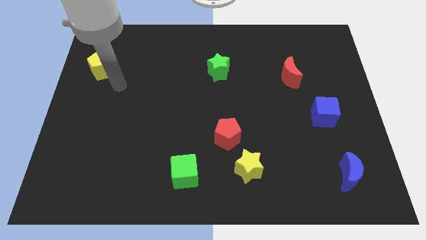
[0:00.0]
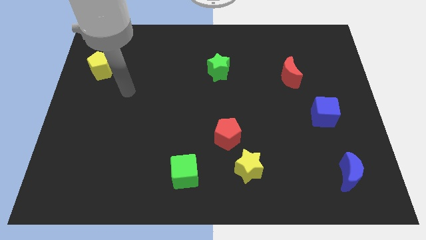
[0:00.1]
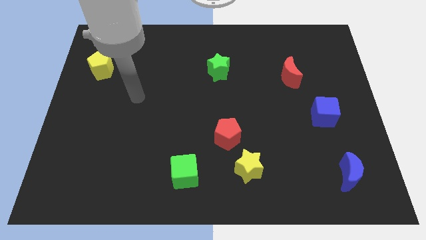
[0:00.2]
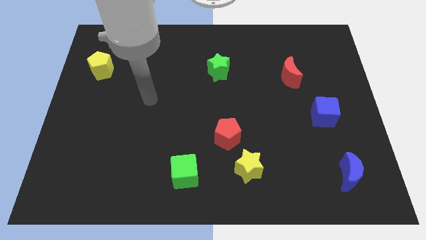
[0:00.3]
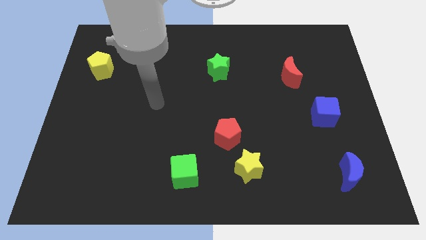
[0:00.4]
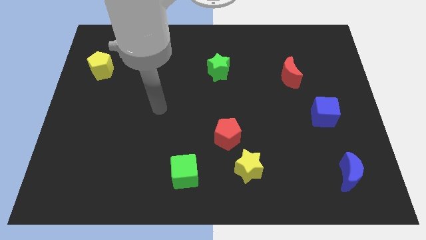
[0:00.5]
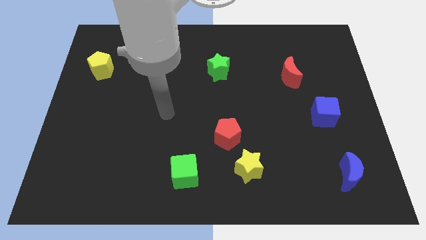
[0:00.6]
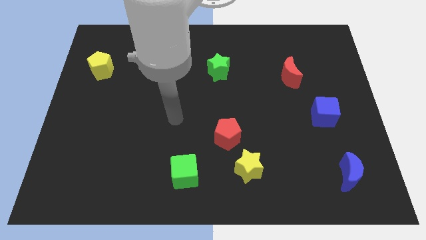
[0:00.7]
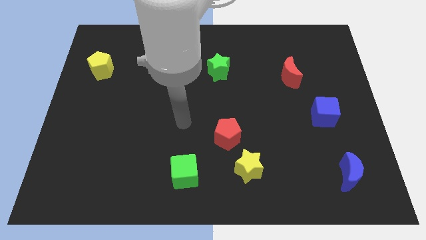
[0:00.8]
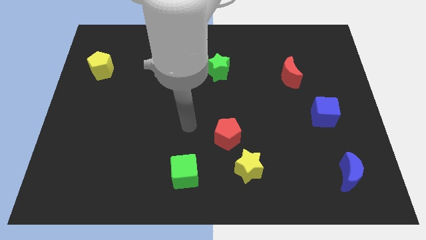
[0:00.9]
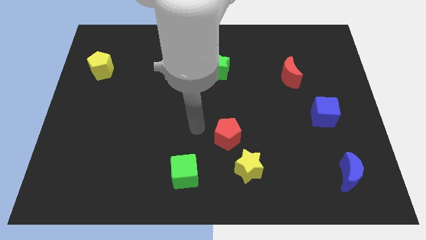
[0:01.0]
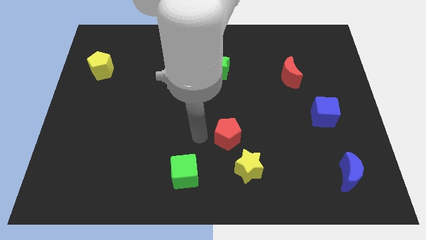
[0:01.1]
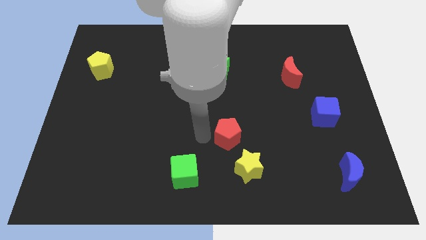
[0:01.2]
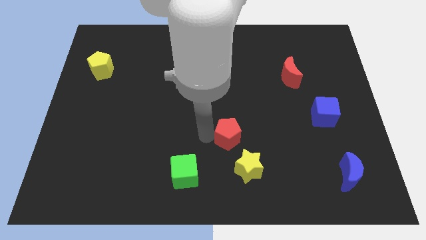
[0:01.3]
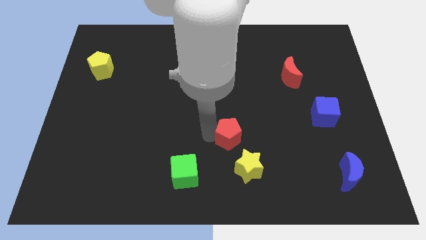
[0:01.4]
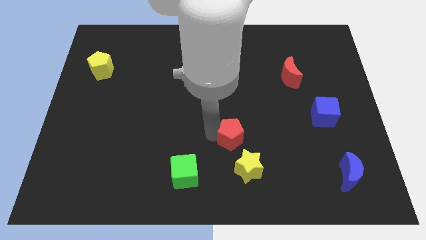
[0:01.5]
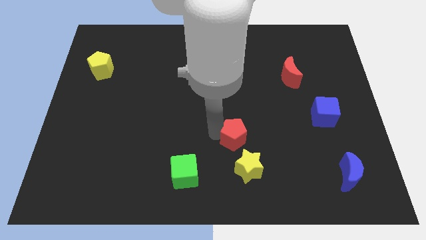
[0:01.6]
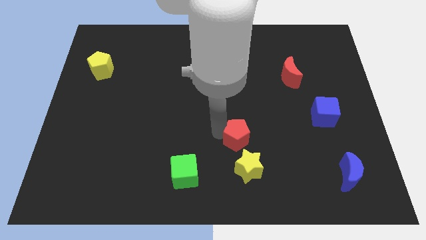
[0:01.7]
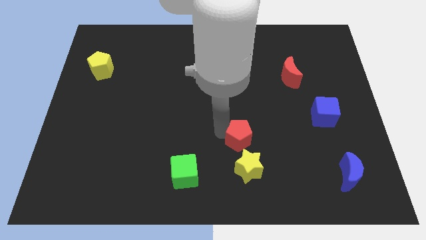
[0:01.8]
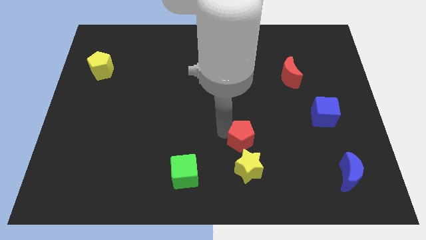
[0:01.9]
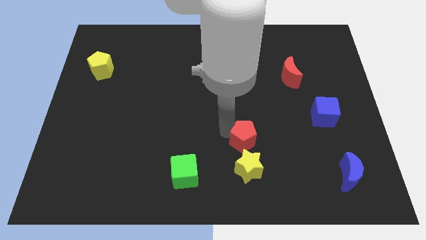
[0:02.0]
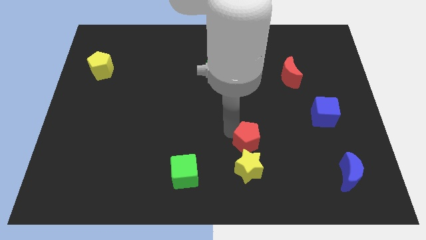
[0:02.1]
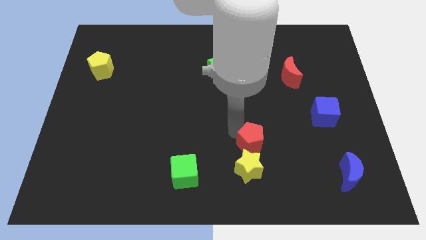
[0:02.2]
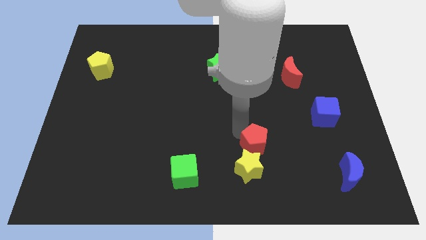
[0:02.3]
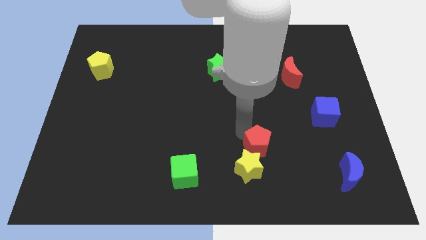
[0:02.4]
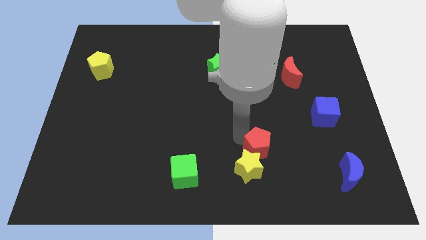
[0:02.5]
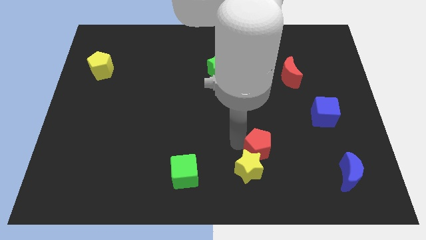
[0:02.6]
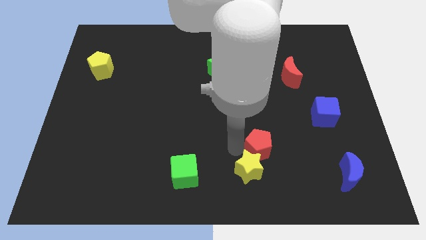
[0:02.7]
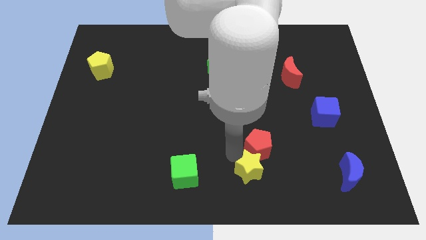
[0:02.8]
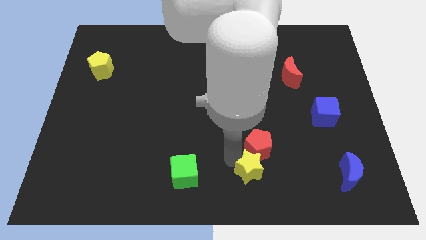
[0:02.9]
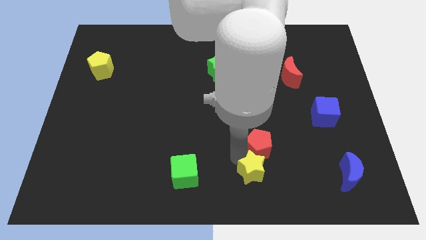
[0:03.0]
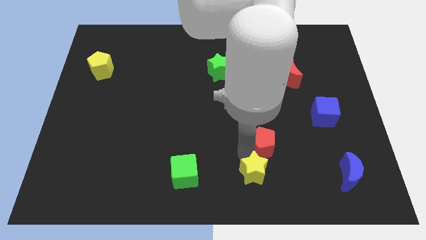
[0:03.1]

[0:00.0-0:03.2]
slightly slide the red pentagon right

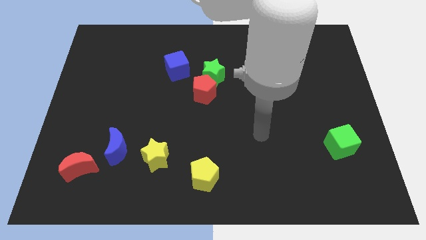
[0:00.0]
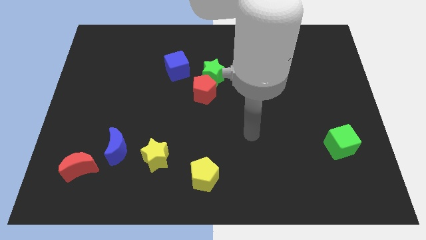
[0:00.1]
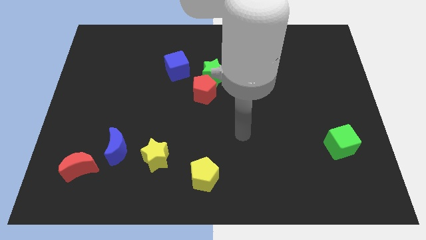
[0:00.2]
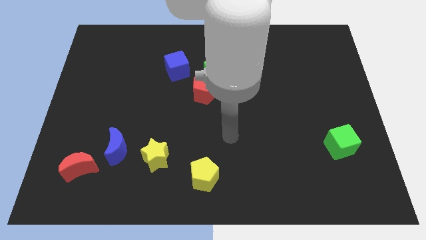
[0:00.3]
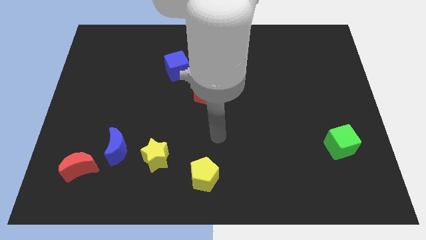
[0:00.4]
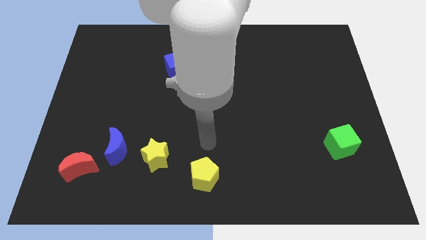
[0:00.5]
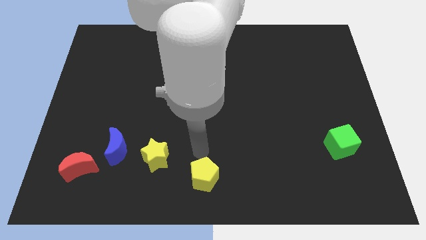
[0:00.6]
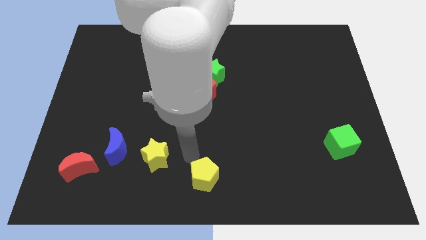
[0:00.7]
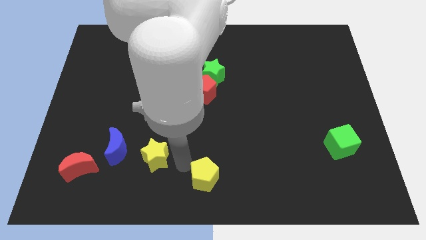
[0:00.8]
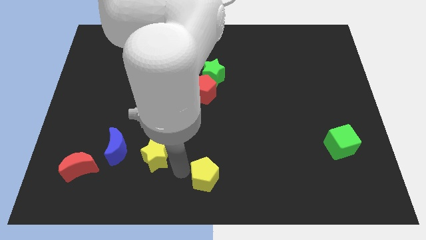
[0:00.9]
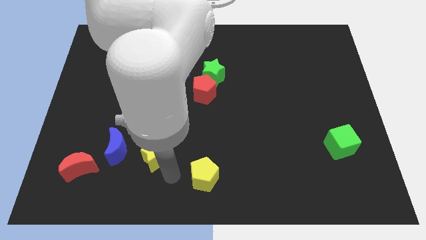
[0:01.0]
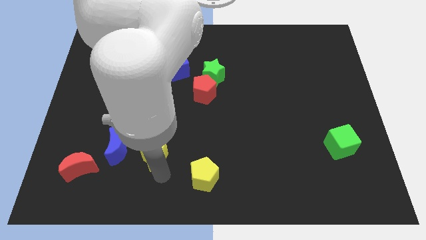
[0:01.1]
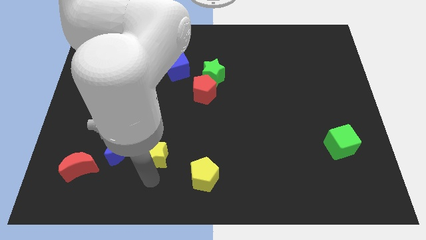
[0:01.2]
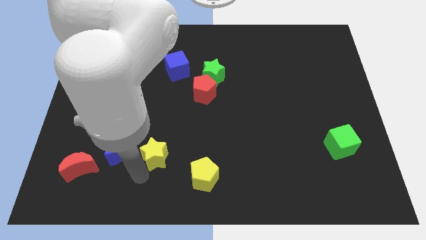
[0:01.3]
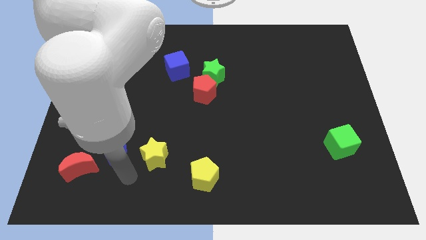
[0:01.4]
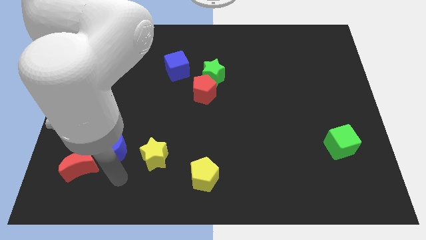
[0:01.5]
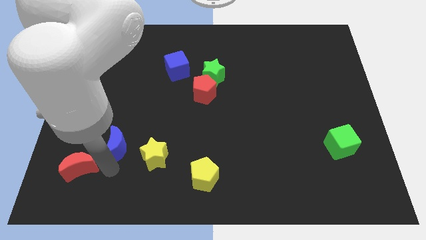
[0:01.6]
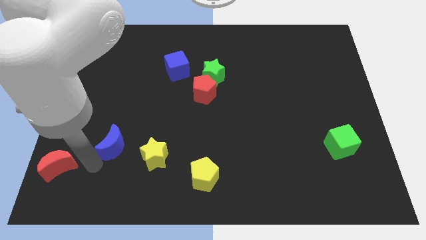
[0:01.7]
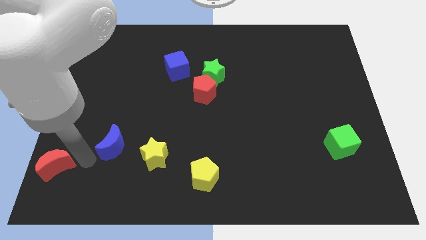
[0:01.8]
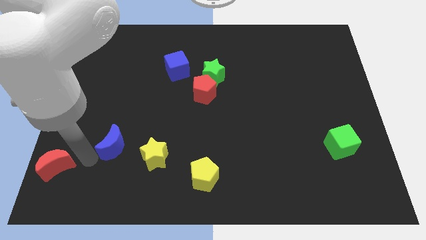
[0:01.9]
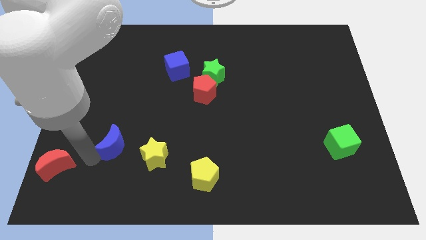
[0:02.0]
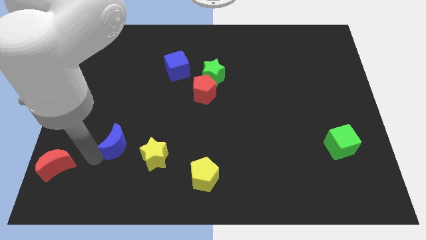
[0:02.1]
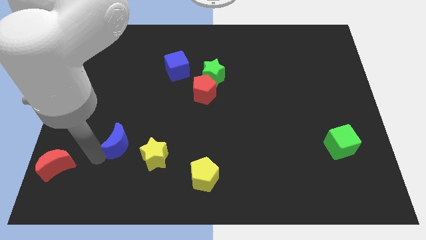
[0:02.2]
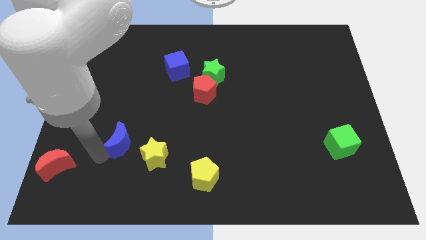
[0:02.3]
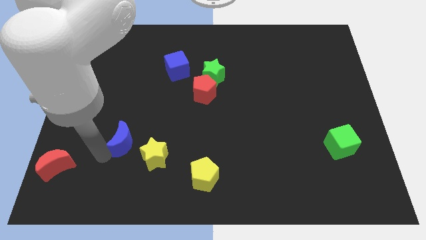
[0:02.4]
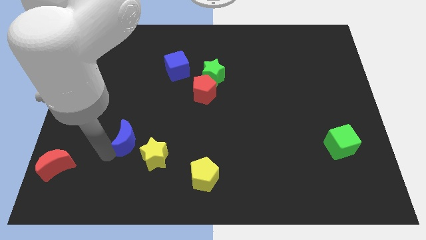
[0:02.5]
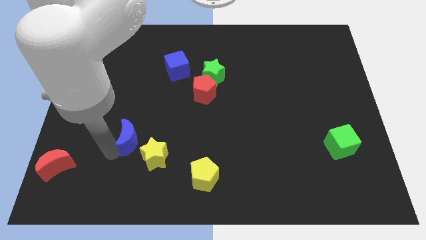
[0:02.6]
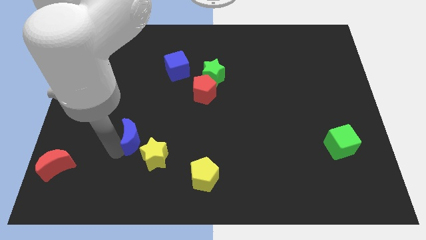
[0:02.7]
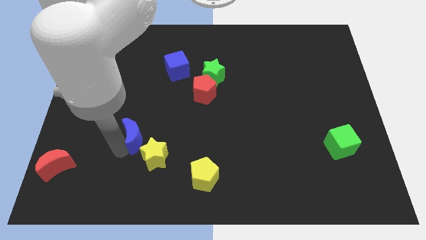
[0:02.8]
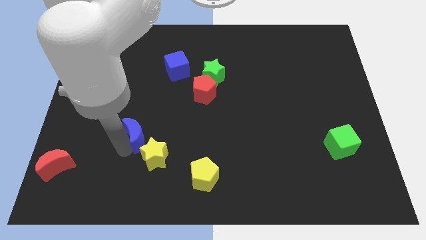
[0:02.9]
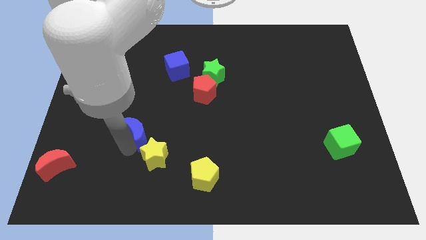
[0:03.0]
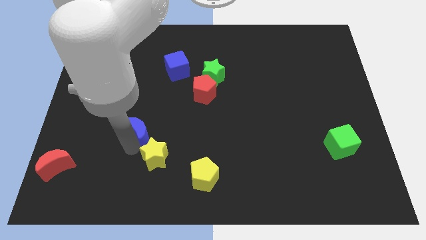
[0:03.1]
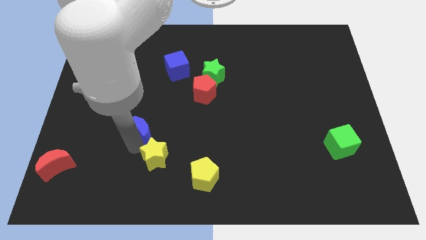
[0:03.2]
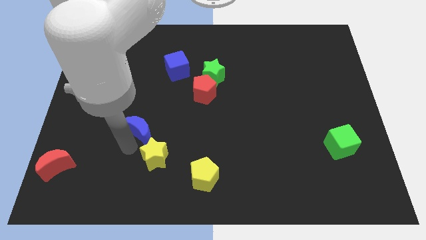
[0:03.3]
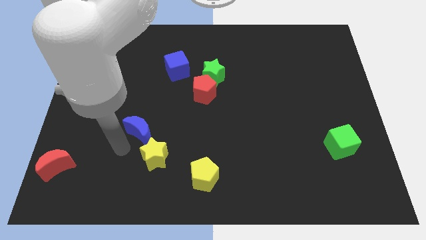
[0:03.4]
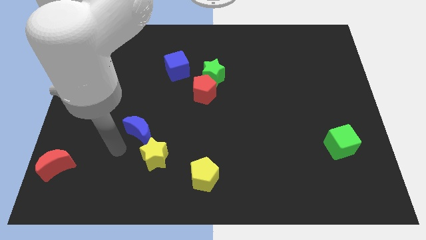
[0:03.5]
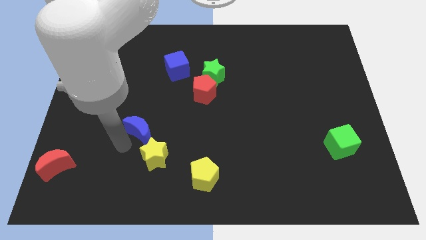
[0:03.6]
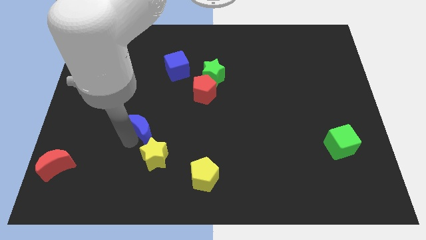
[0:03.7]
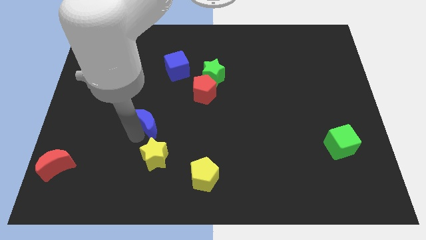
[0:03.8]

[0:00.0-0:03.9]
slightly move the blue moon up and right

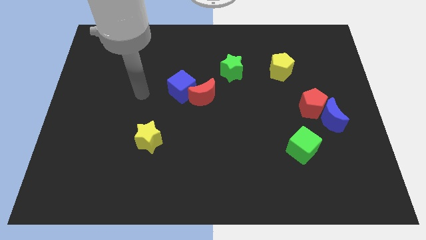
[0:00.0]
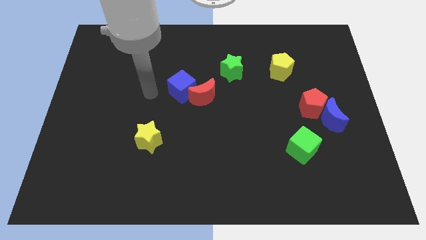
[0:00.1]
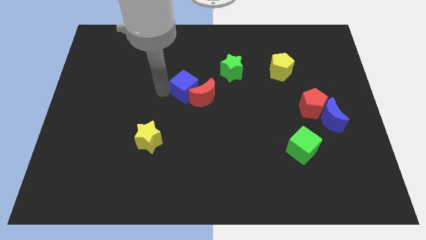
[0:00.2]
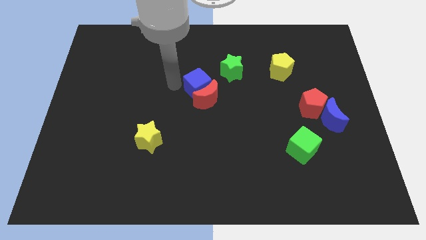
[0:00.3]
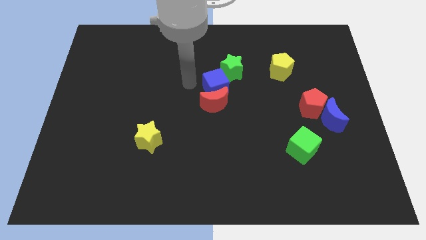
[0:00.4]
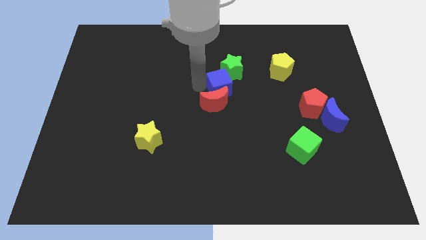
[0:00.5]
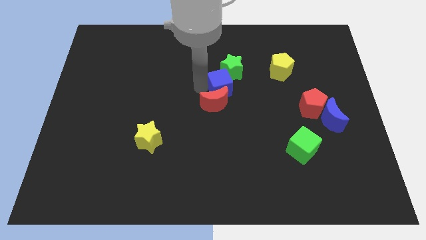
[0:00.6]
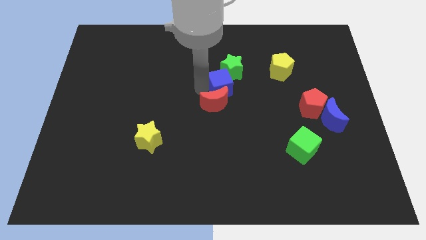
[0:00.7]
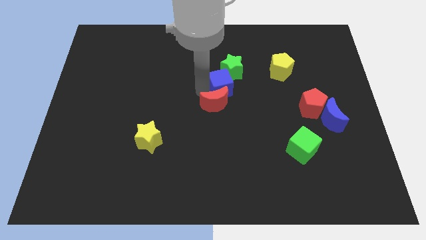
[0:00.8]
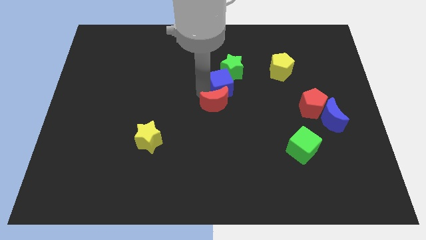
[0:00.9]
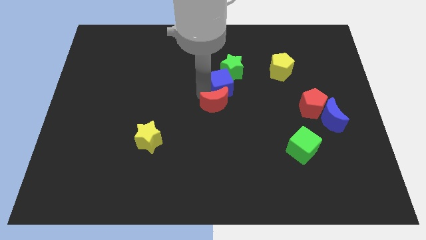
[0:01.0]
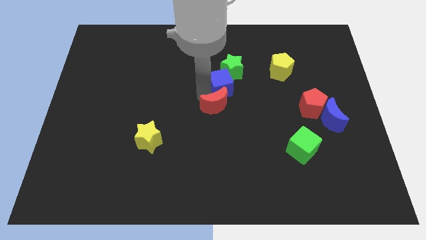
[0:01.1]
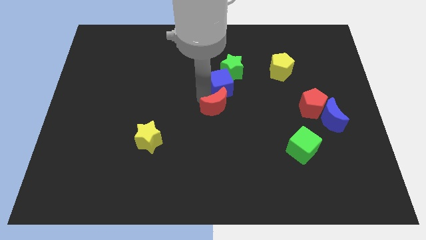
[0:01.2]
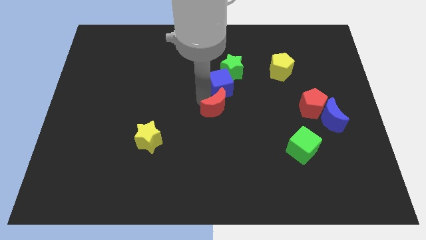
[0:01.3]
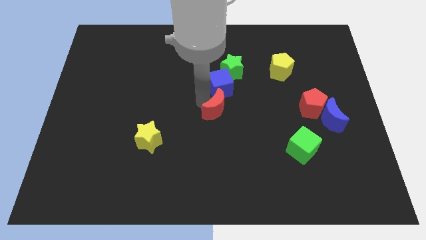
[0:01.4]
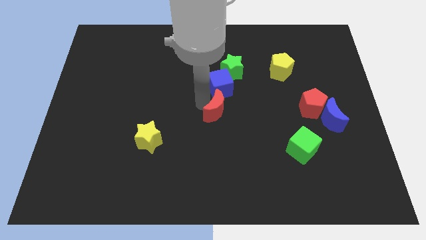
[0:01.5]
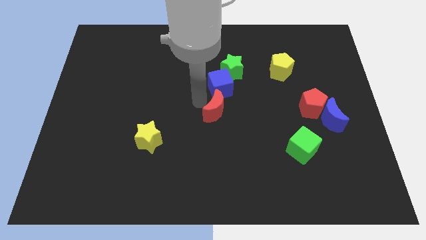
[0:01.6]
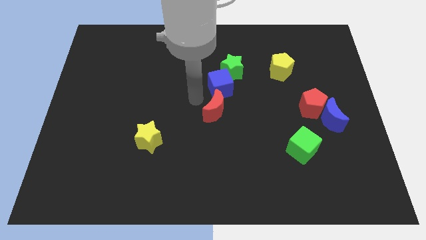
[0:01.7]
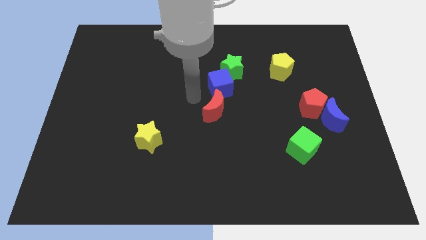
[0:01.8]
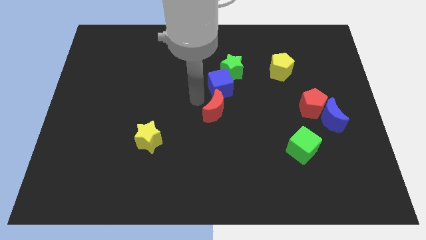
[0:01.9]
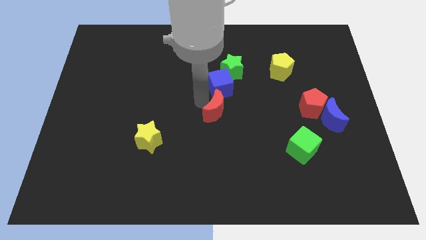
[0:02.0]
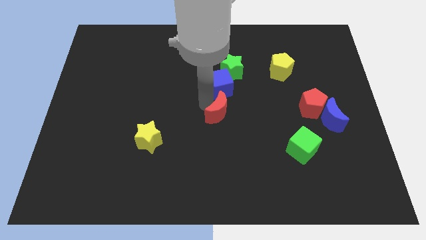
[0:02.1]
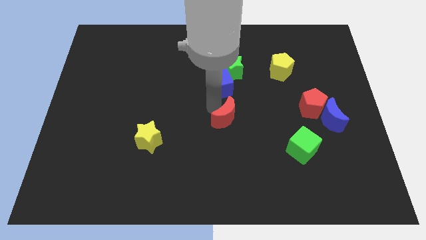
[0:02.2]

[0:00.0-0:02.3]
slide the red moon somewhat down and then to the right
